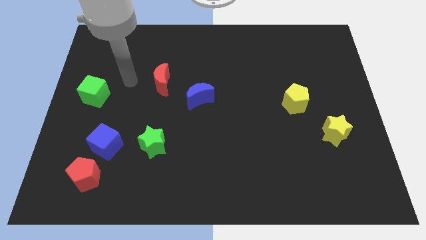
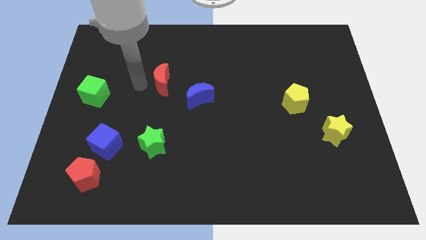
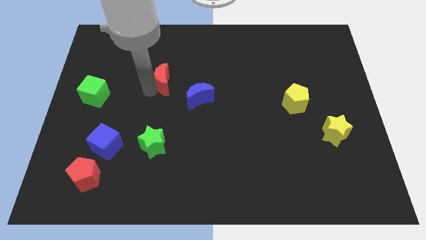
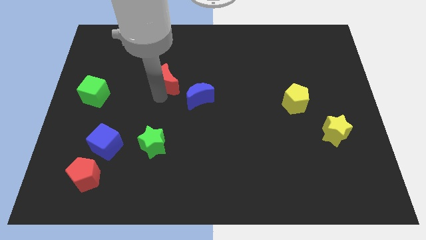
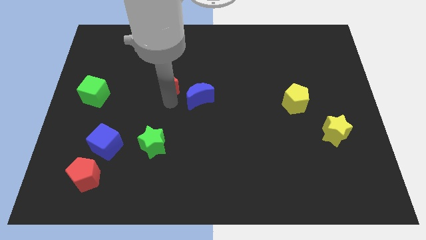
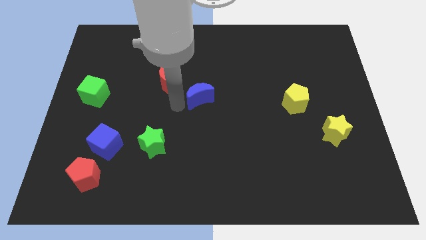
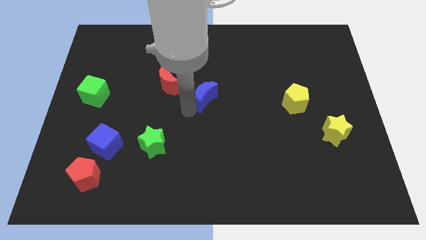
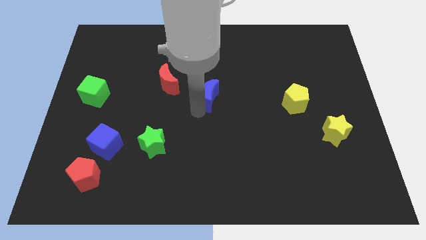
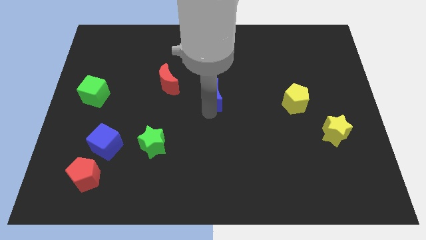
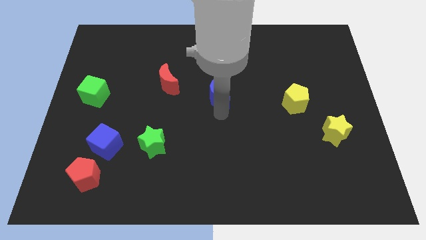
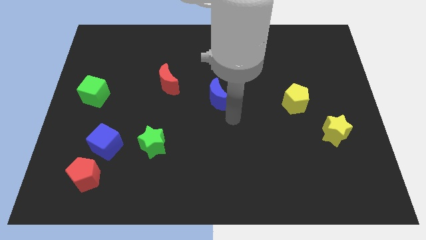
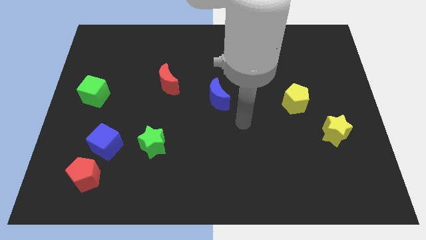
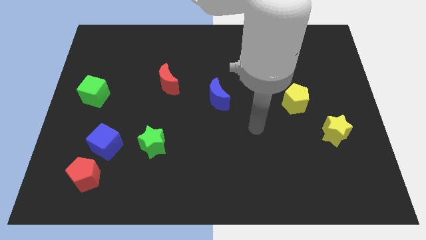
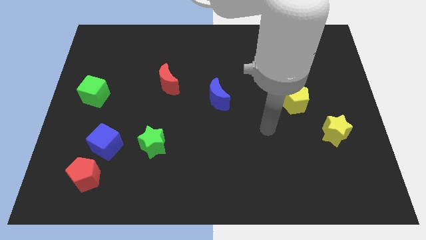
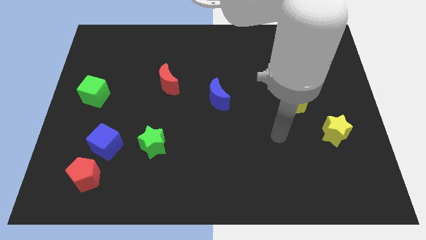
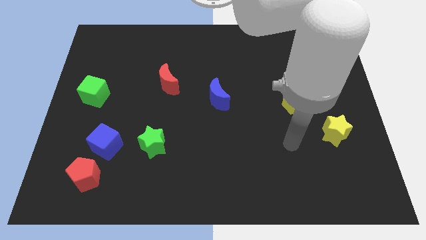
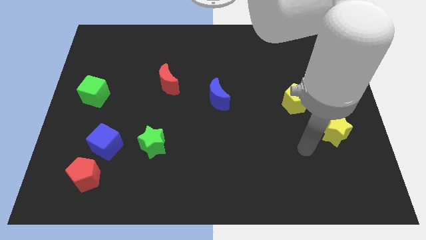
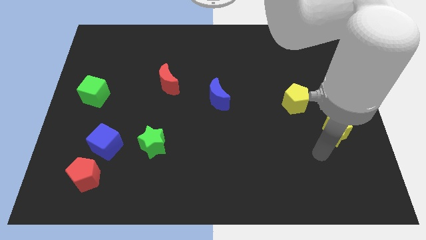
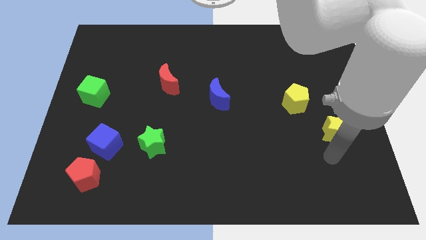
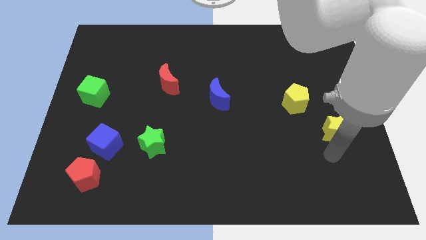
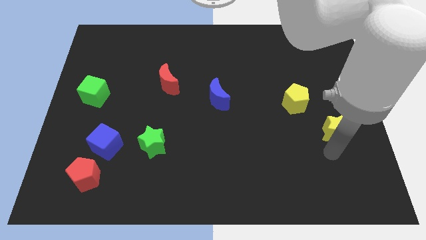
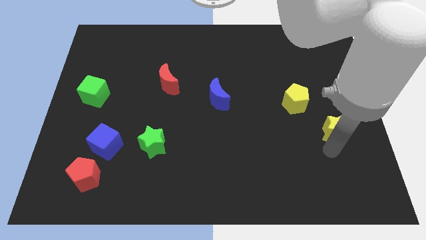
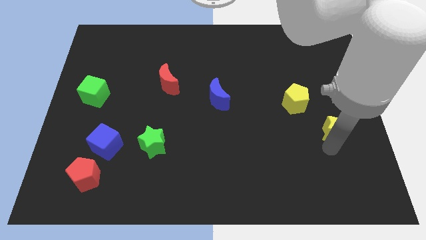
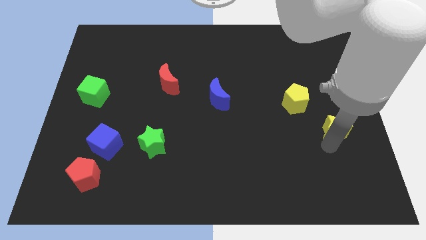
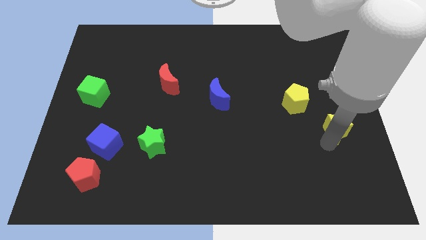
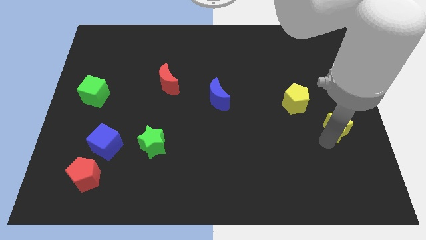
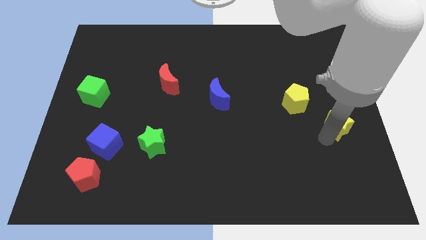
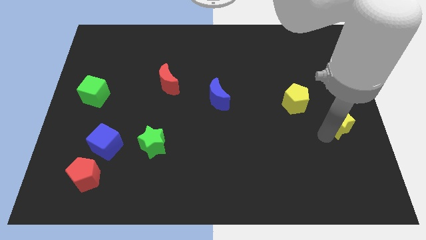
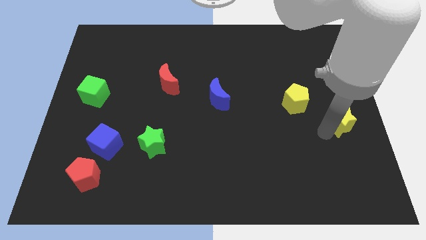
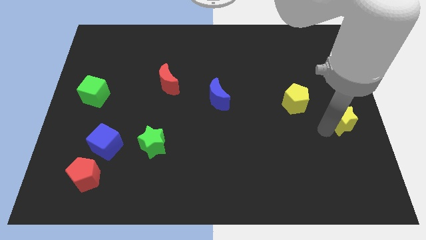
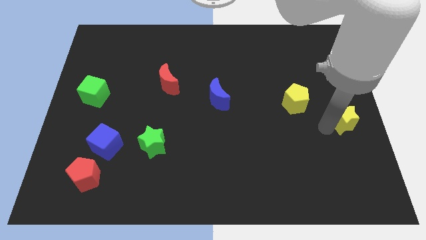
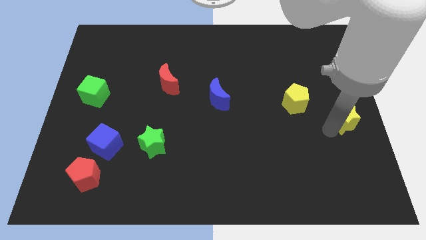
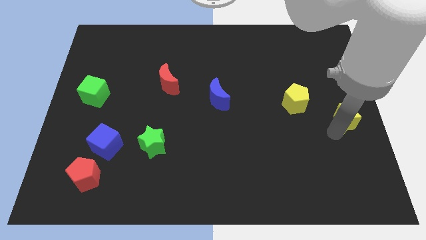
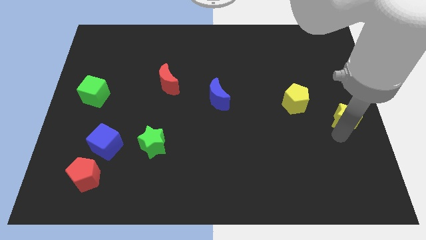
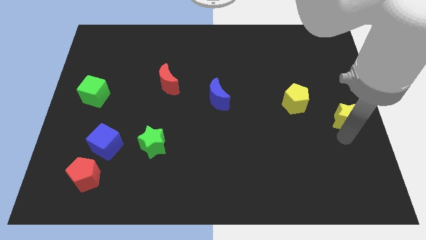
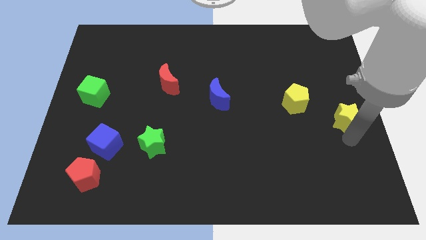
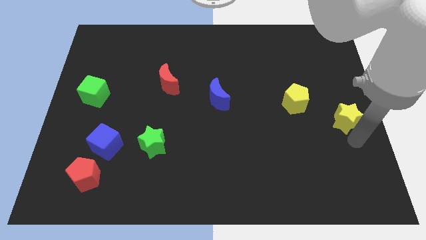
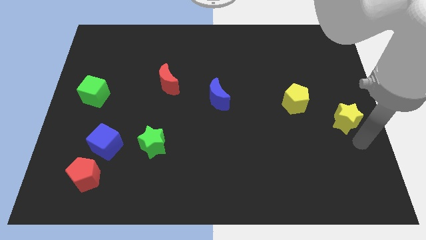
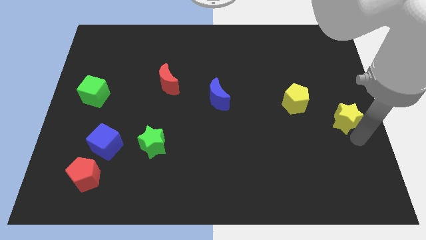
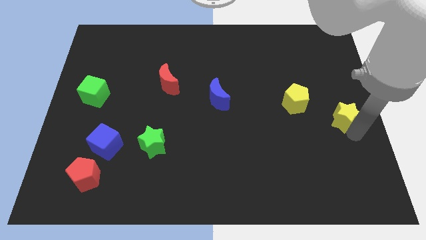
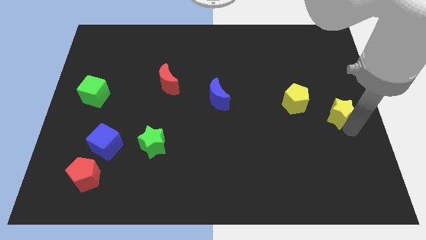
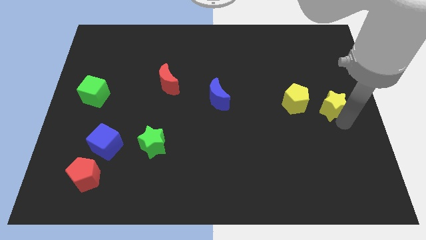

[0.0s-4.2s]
slightly slide the yellow star upwards

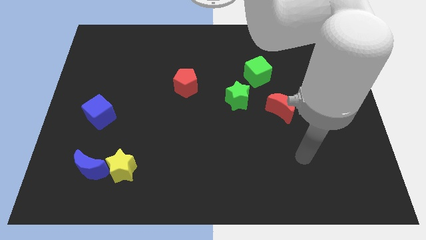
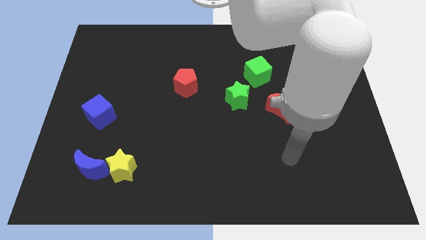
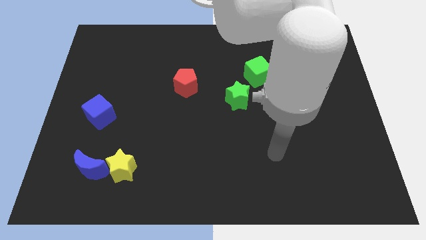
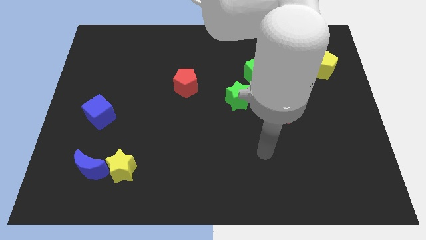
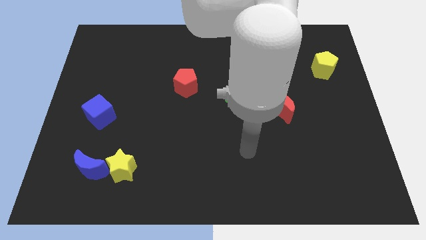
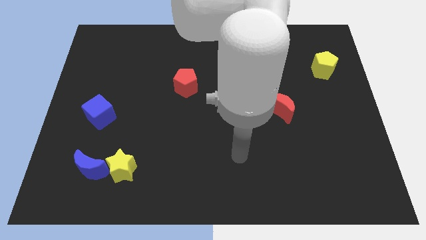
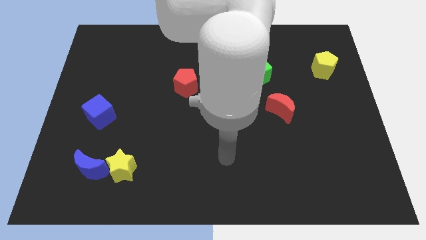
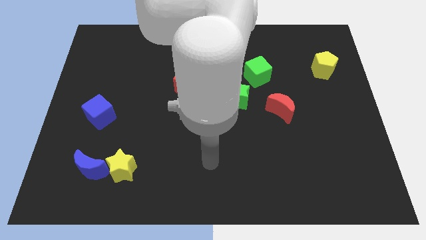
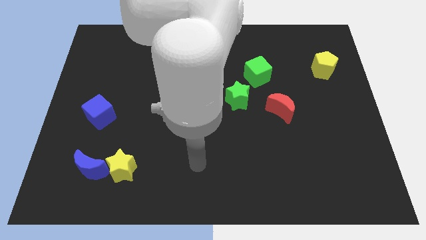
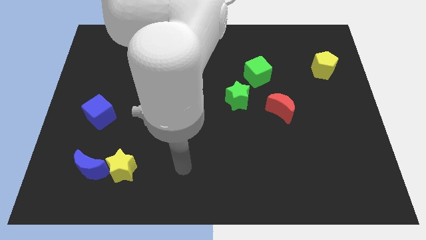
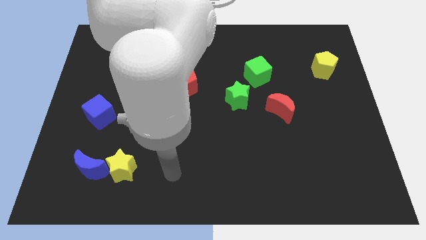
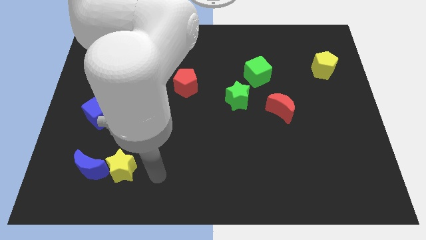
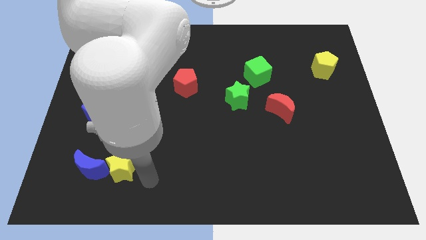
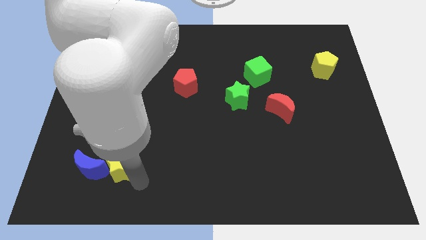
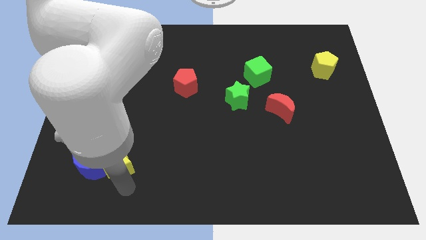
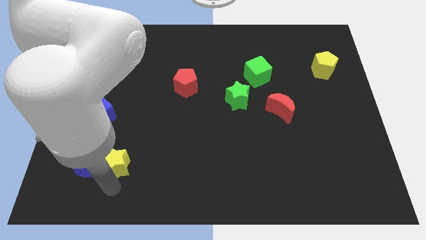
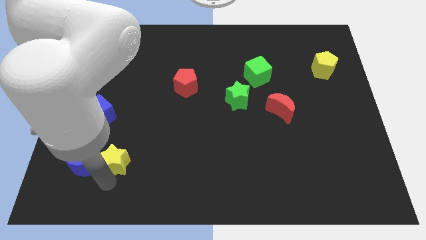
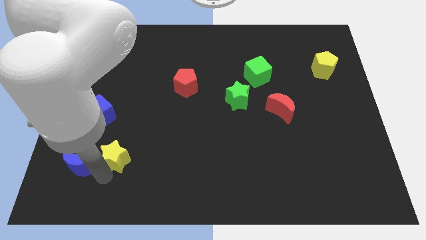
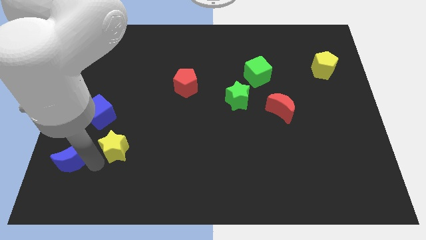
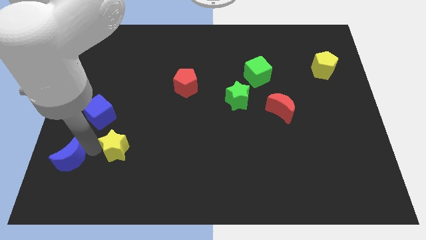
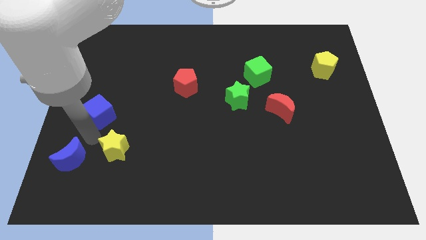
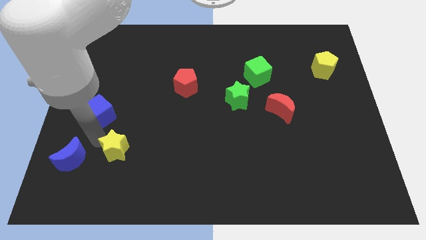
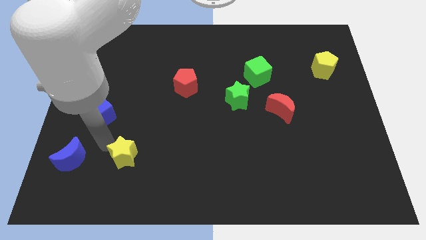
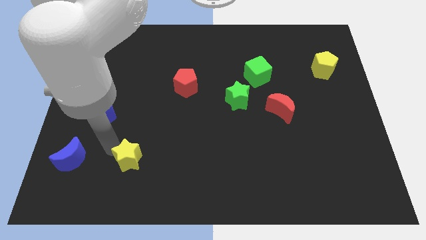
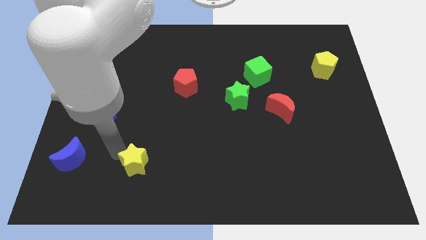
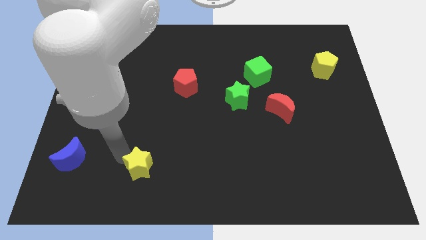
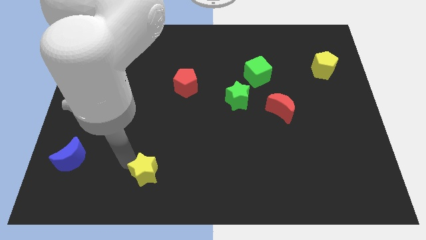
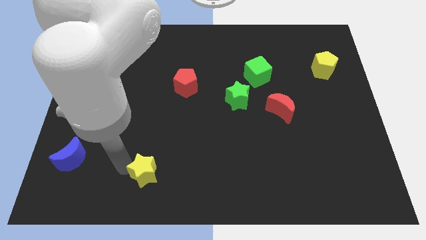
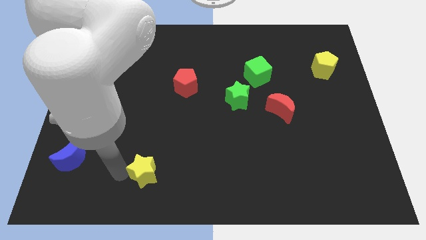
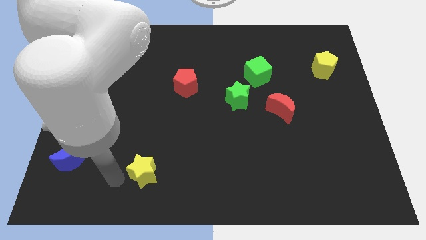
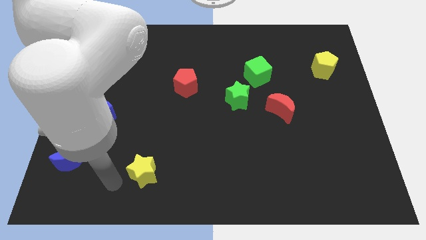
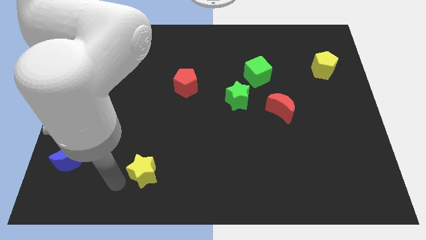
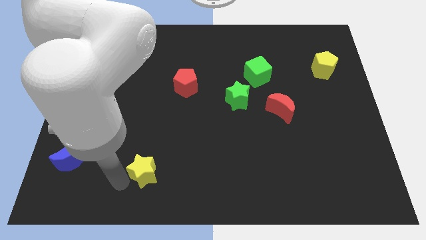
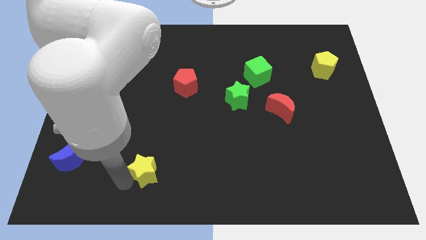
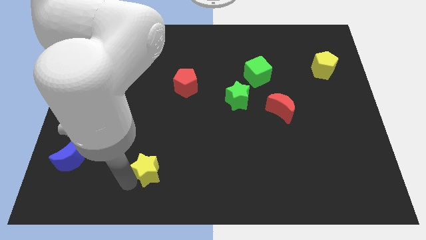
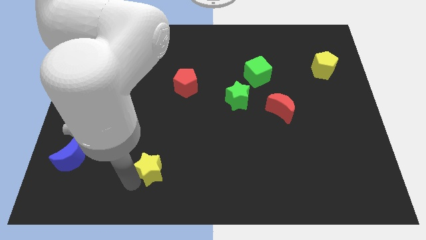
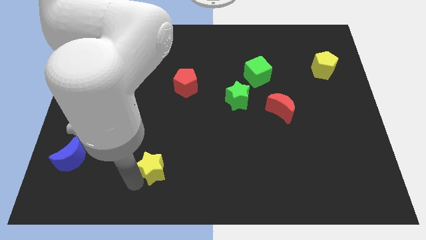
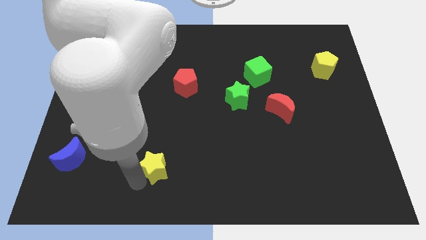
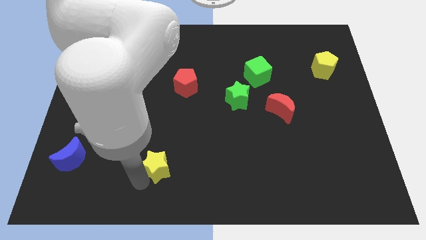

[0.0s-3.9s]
slide the yellow star a little bit to the right

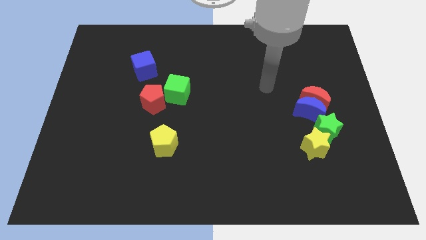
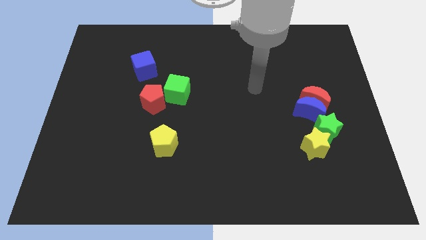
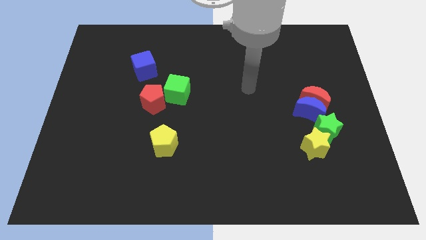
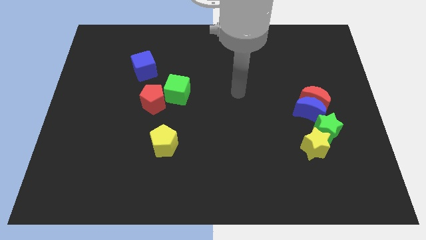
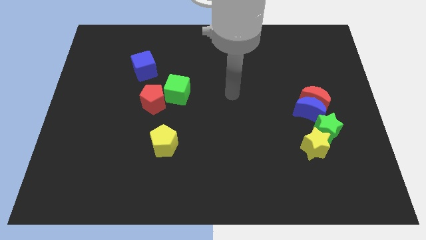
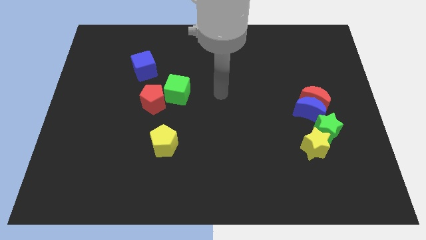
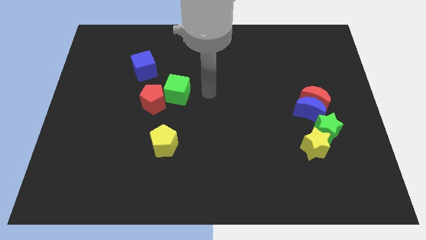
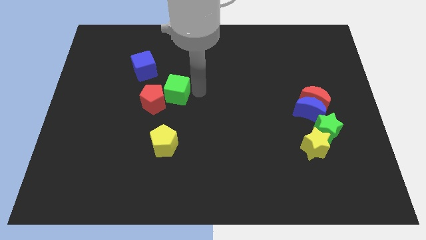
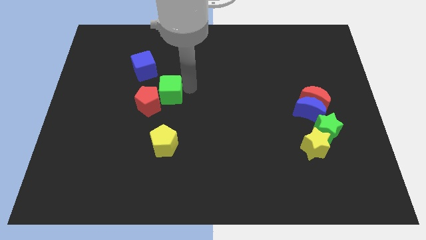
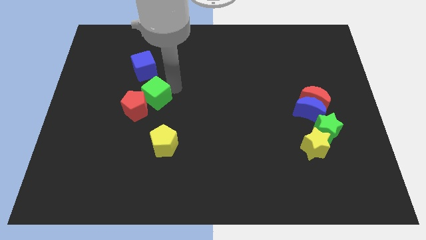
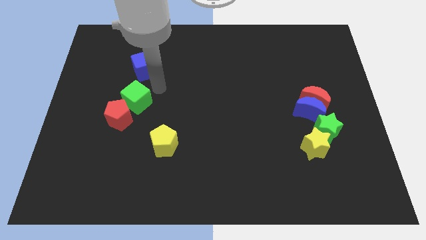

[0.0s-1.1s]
slightly push the red pentagon downwards and left diagonally
